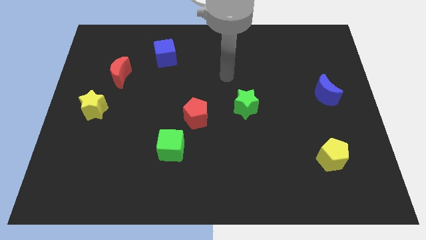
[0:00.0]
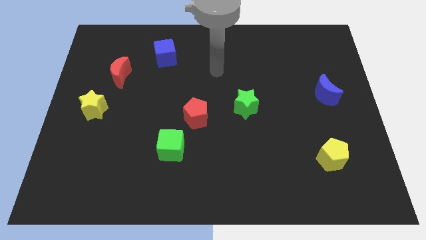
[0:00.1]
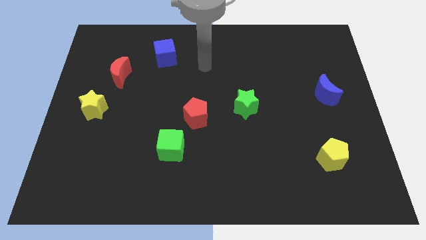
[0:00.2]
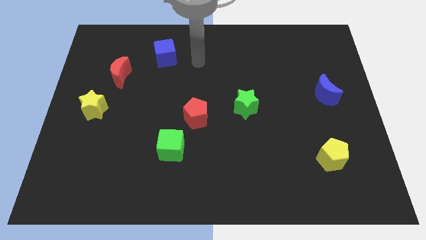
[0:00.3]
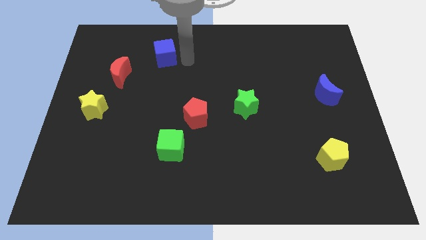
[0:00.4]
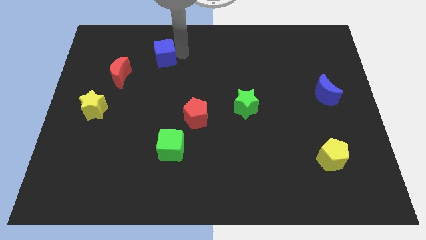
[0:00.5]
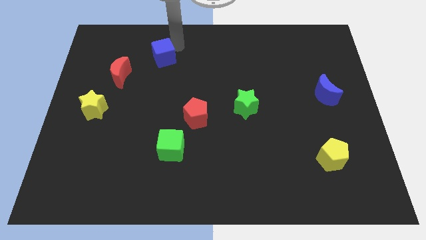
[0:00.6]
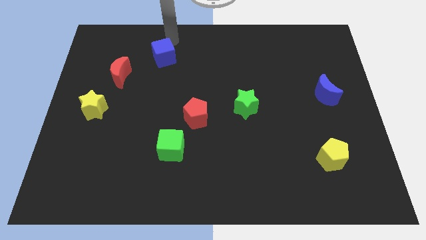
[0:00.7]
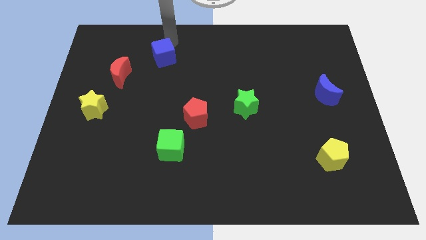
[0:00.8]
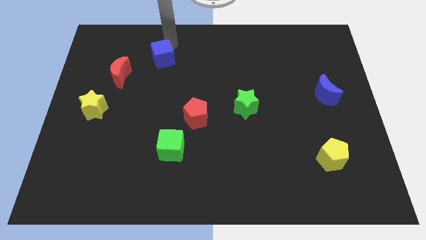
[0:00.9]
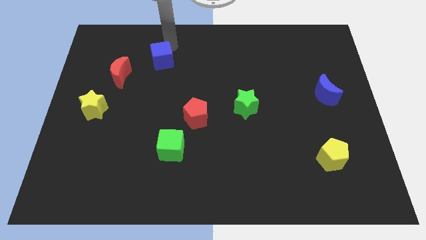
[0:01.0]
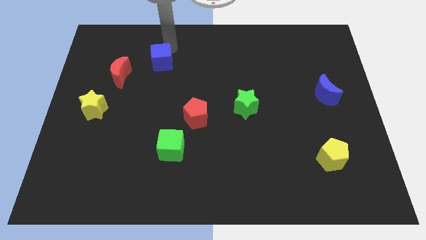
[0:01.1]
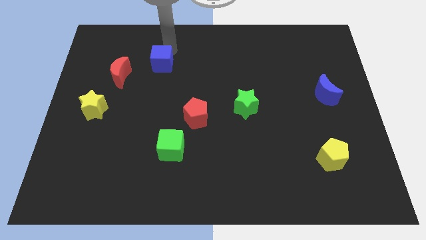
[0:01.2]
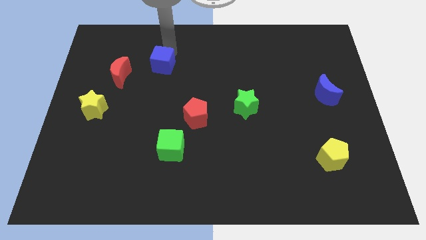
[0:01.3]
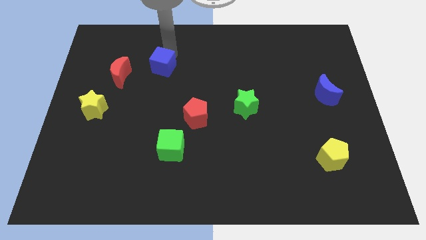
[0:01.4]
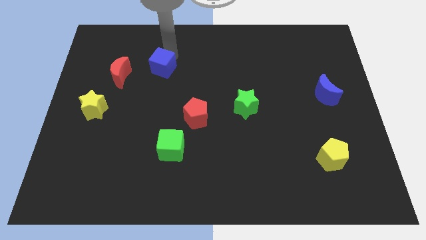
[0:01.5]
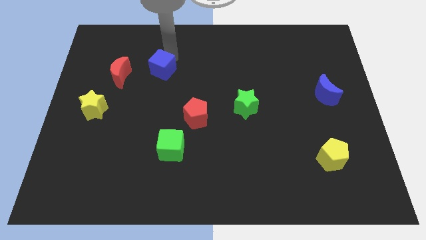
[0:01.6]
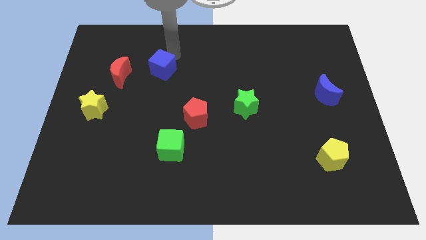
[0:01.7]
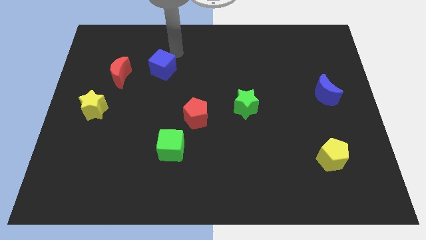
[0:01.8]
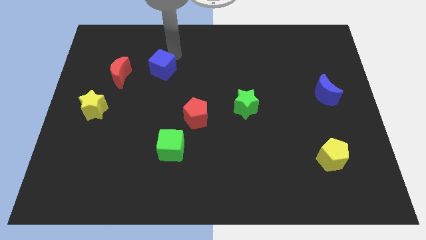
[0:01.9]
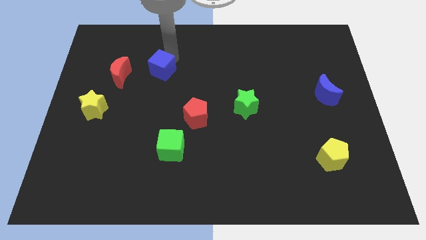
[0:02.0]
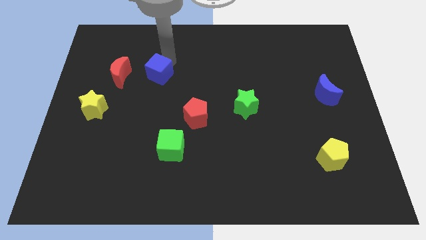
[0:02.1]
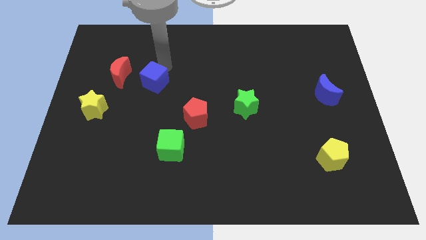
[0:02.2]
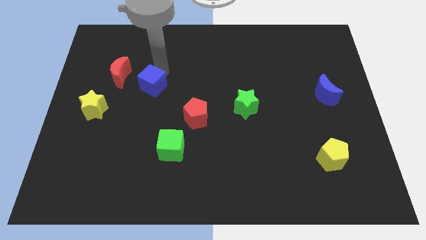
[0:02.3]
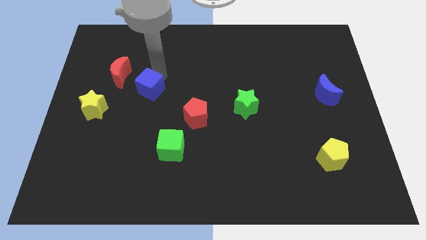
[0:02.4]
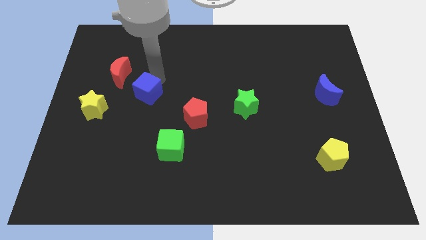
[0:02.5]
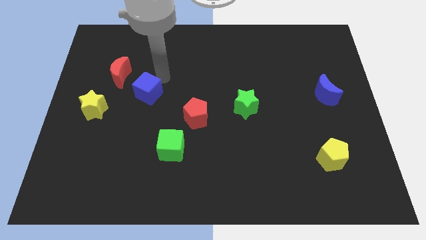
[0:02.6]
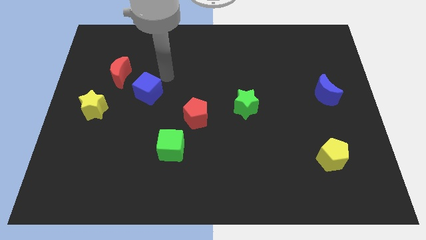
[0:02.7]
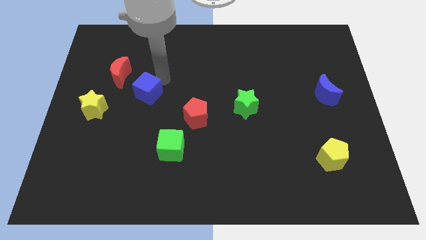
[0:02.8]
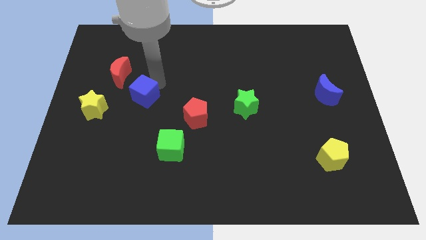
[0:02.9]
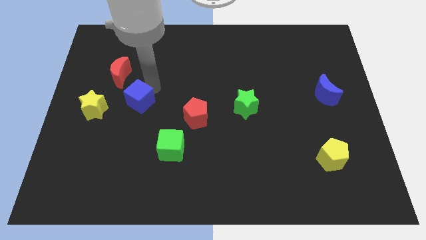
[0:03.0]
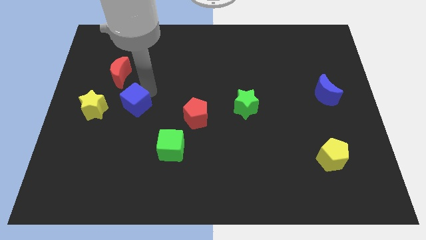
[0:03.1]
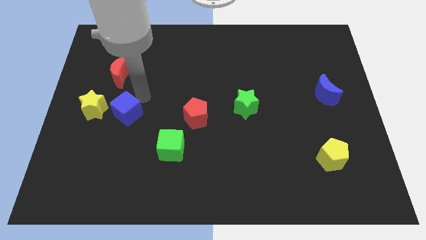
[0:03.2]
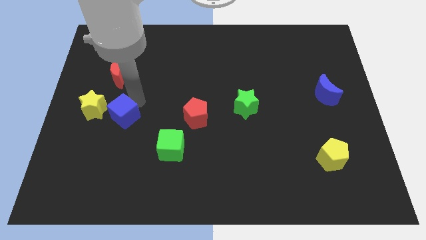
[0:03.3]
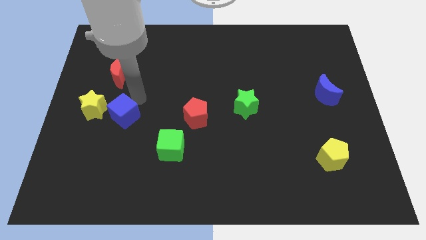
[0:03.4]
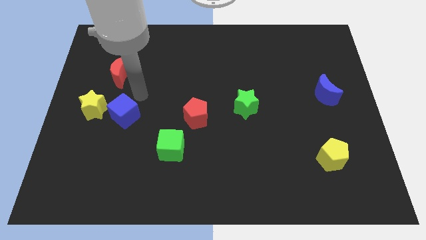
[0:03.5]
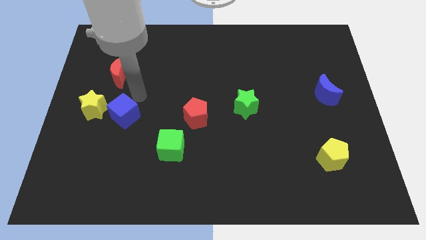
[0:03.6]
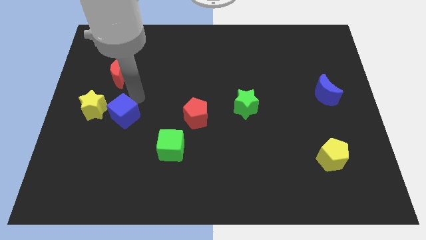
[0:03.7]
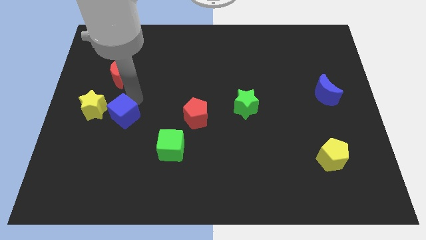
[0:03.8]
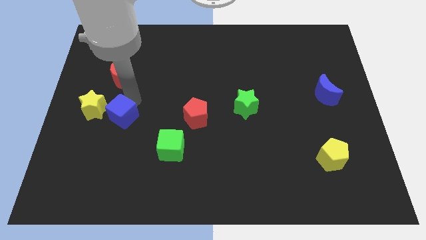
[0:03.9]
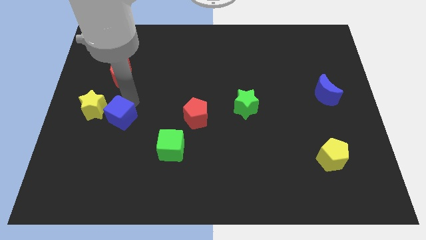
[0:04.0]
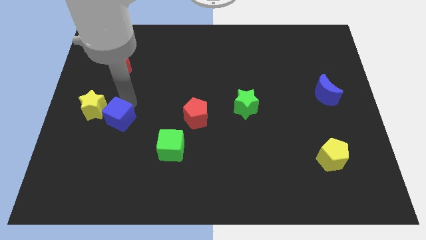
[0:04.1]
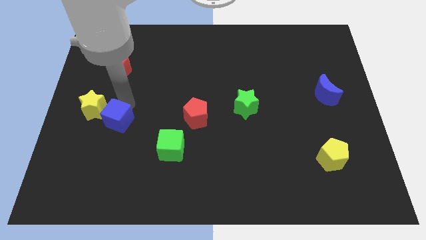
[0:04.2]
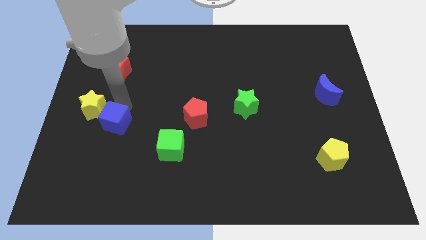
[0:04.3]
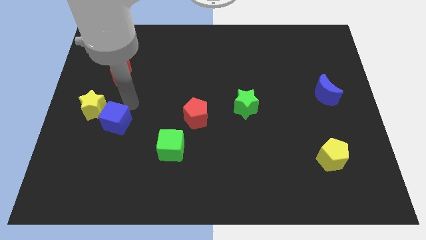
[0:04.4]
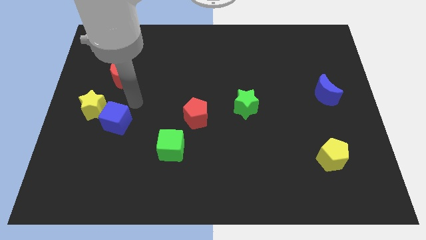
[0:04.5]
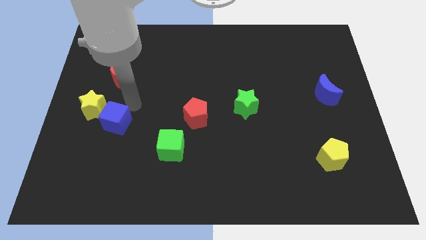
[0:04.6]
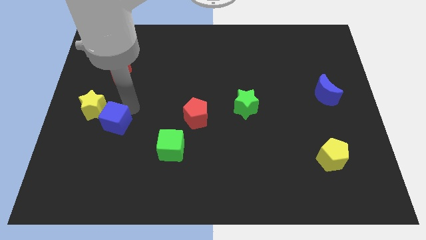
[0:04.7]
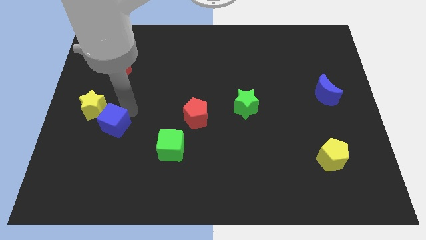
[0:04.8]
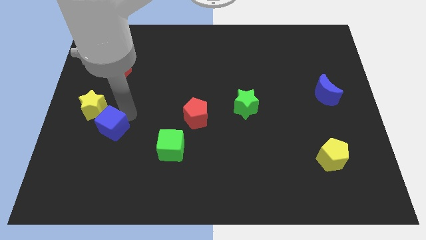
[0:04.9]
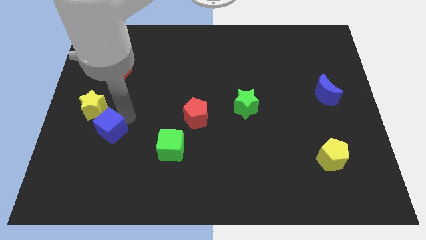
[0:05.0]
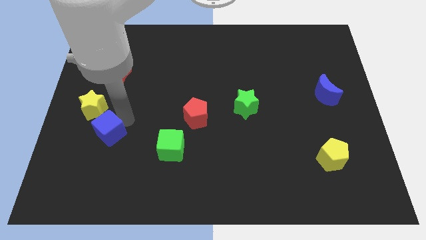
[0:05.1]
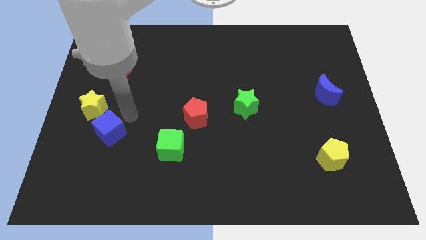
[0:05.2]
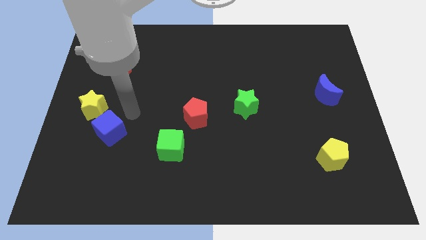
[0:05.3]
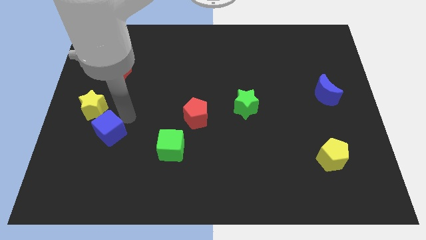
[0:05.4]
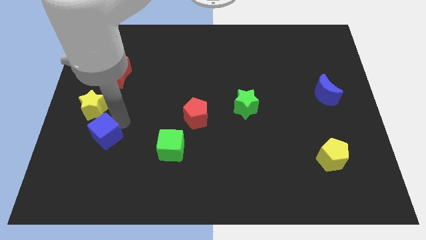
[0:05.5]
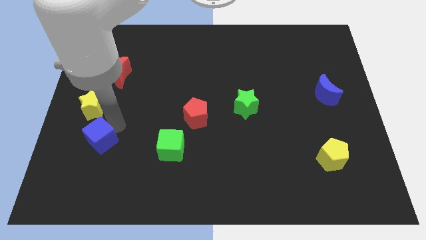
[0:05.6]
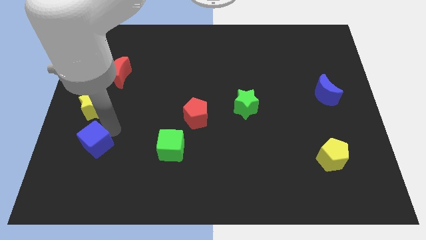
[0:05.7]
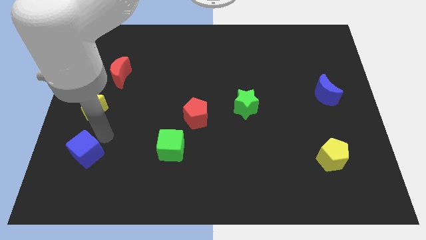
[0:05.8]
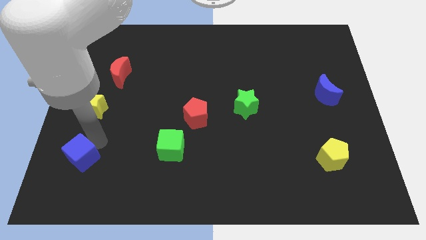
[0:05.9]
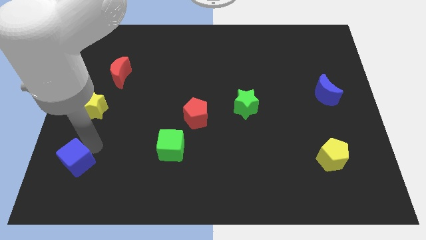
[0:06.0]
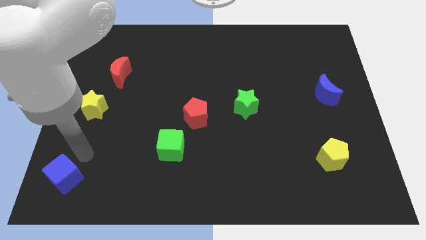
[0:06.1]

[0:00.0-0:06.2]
slide the blue cube to the lower left corner

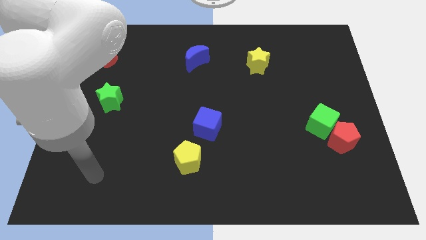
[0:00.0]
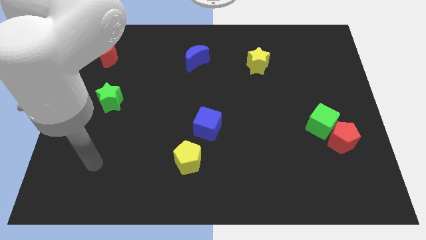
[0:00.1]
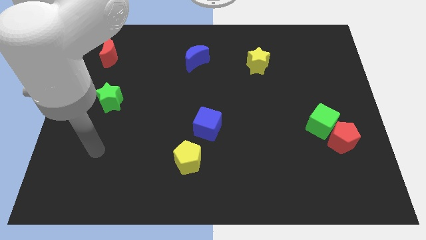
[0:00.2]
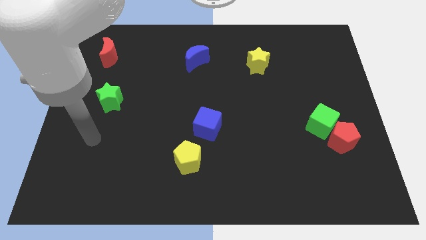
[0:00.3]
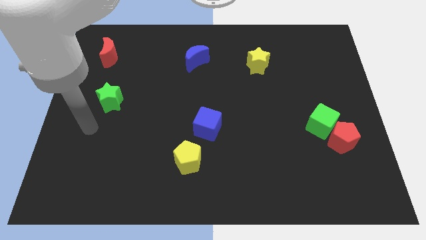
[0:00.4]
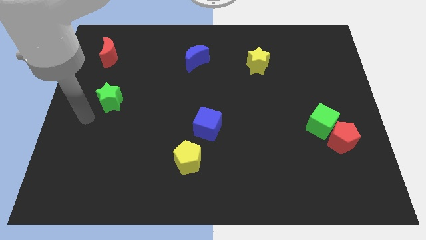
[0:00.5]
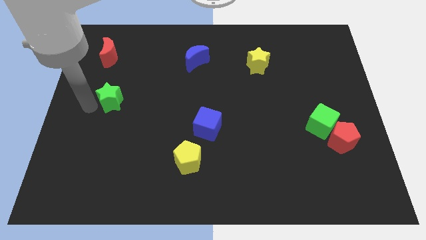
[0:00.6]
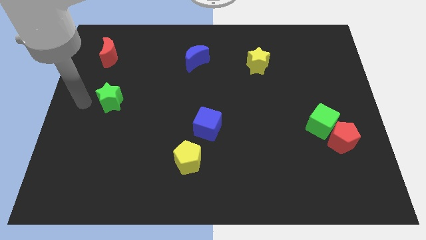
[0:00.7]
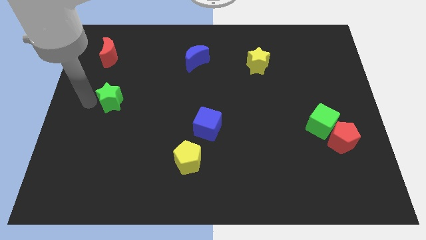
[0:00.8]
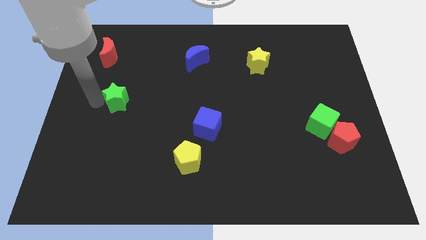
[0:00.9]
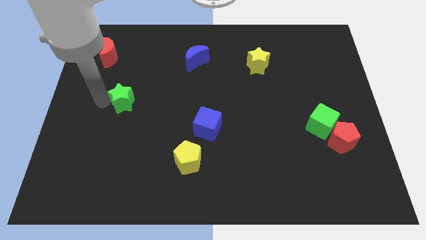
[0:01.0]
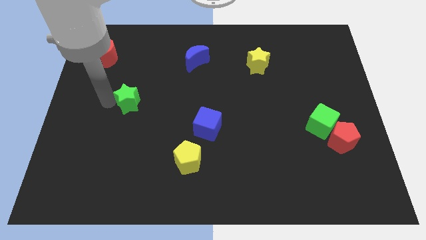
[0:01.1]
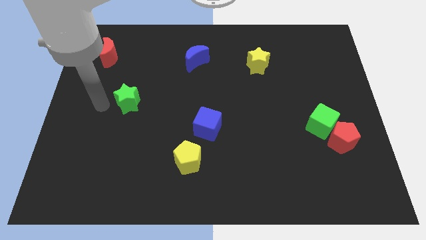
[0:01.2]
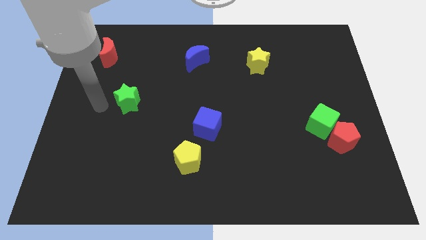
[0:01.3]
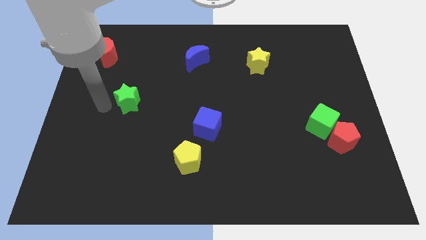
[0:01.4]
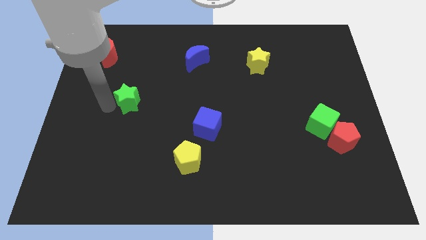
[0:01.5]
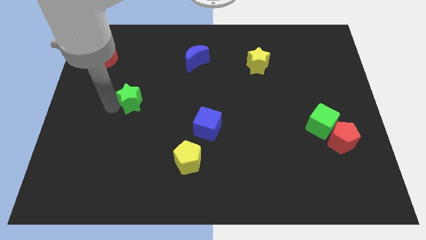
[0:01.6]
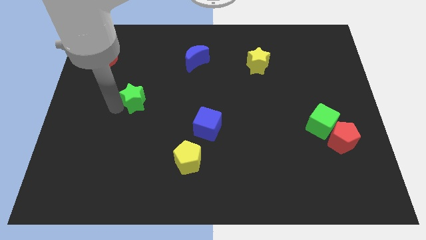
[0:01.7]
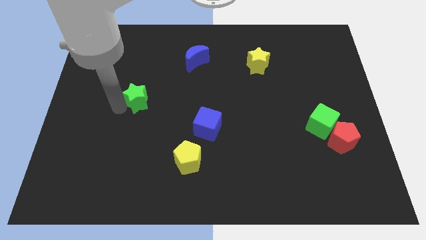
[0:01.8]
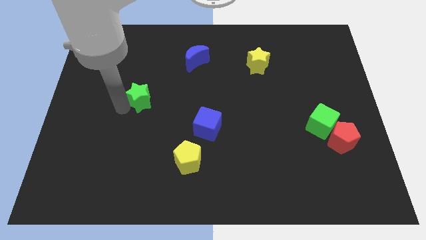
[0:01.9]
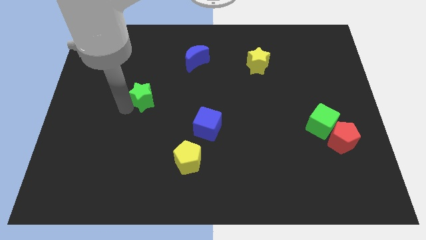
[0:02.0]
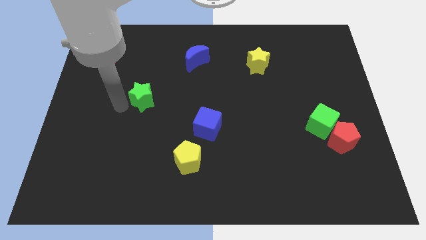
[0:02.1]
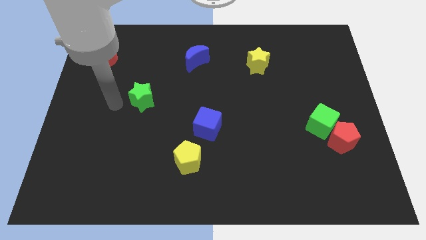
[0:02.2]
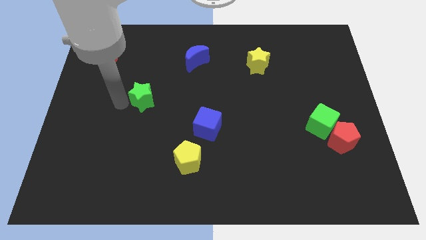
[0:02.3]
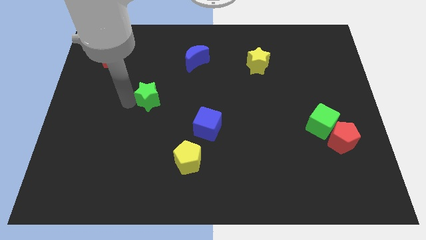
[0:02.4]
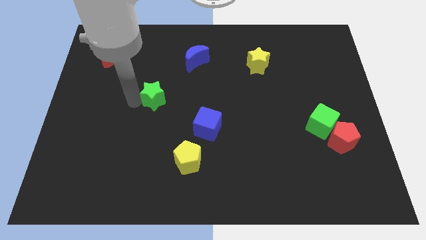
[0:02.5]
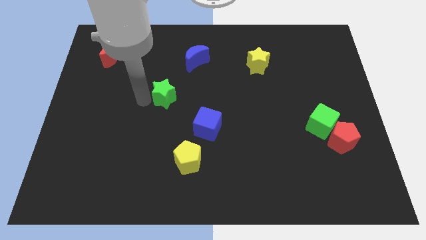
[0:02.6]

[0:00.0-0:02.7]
slide the green star to the middle
